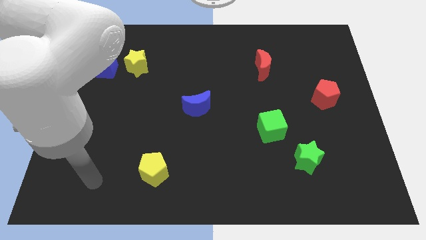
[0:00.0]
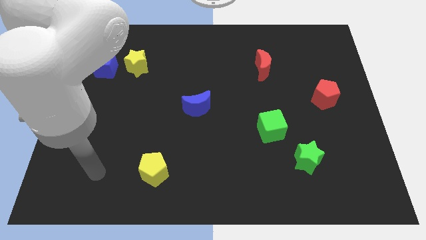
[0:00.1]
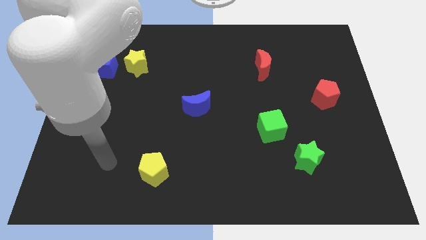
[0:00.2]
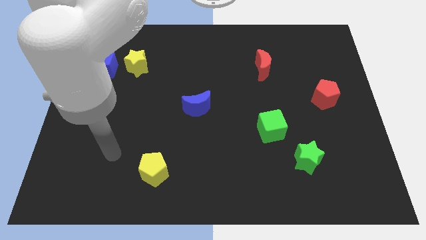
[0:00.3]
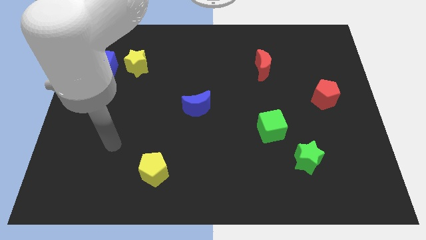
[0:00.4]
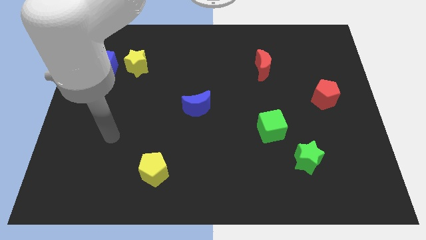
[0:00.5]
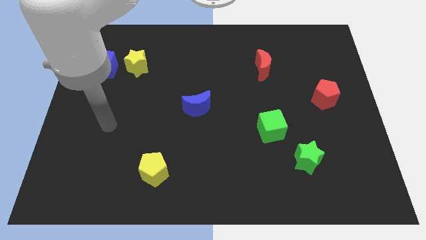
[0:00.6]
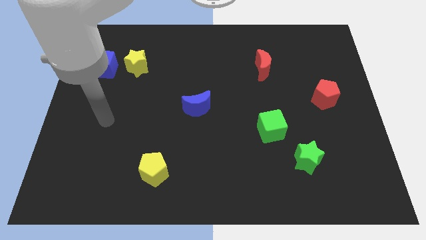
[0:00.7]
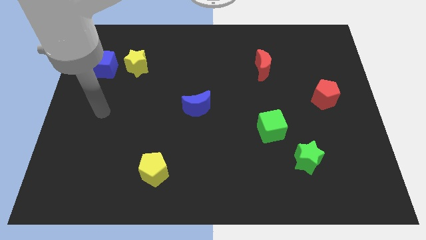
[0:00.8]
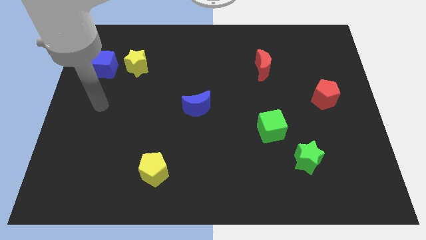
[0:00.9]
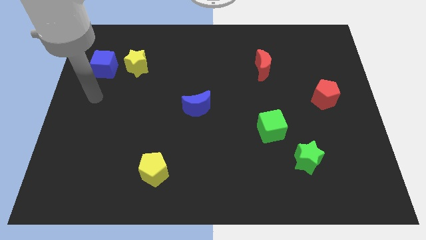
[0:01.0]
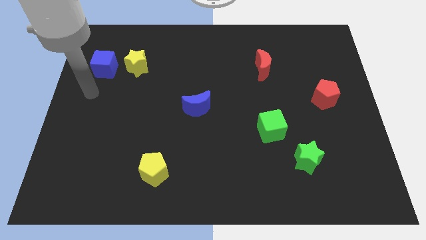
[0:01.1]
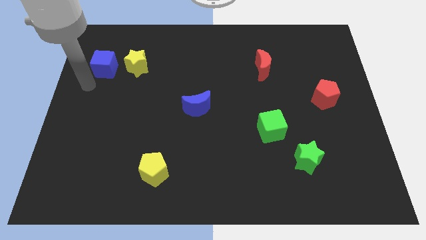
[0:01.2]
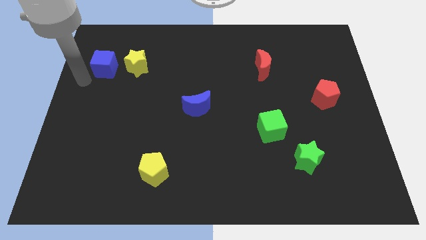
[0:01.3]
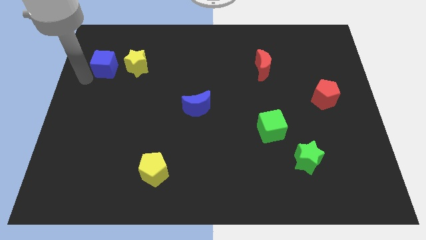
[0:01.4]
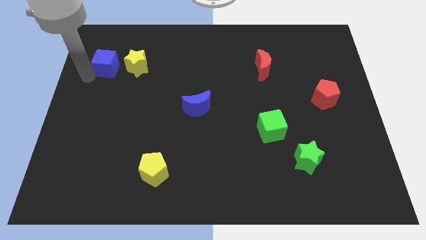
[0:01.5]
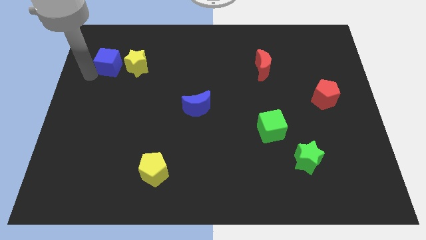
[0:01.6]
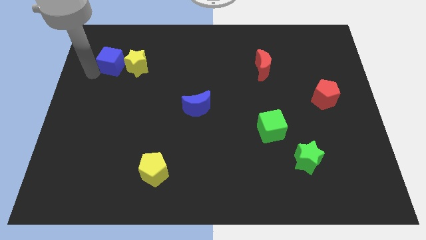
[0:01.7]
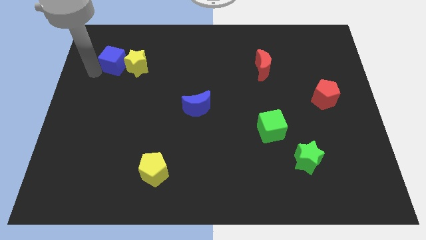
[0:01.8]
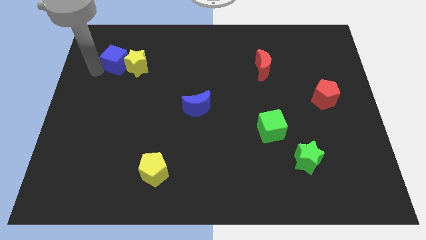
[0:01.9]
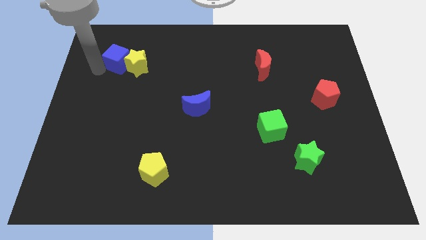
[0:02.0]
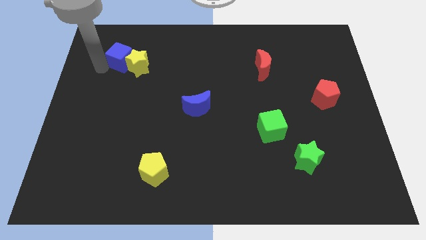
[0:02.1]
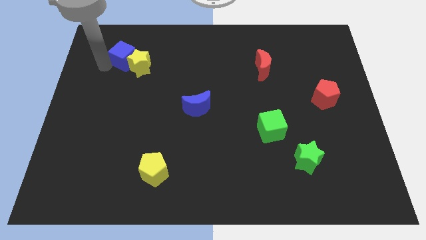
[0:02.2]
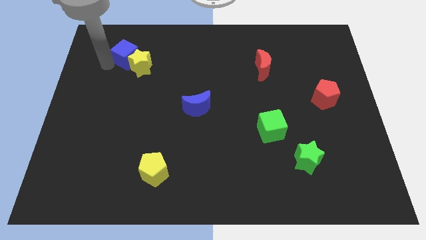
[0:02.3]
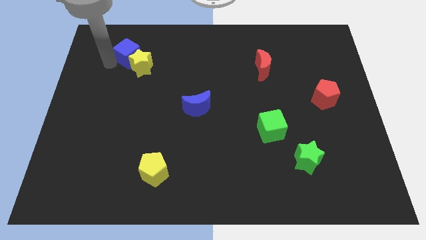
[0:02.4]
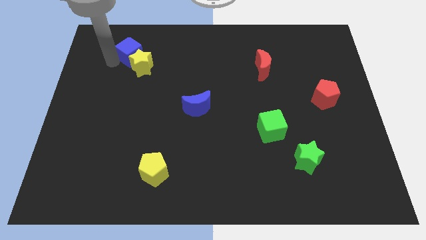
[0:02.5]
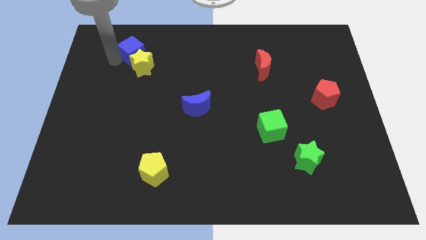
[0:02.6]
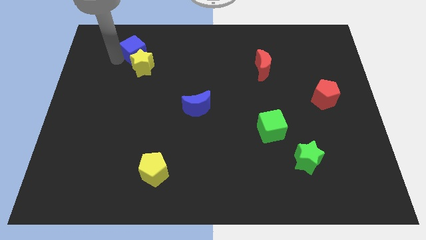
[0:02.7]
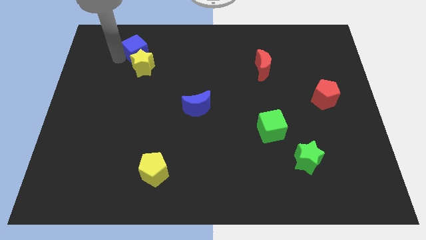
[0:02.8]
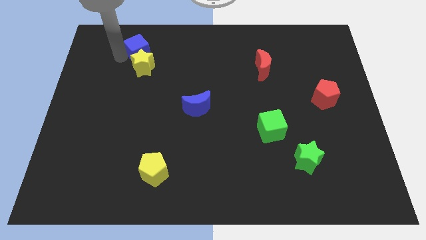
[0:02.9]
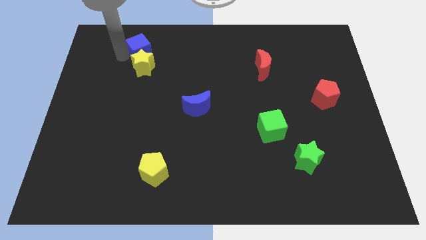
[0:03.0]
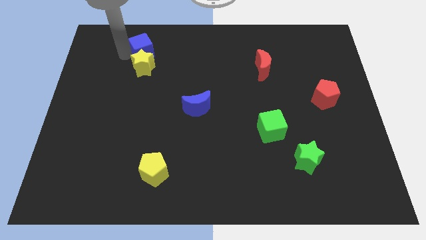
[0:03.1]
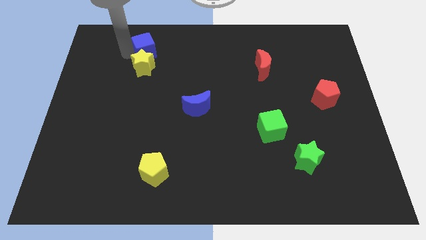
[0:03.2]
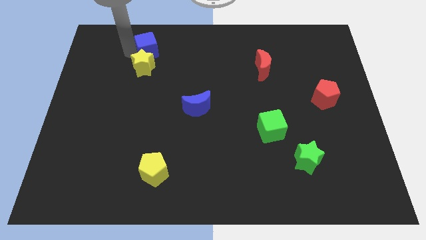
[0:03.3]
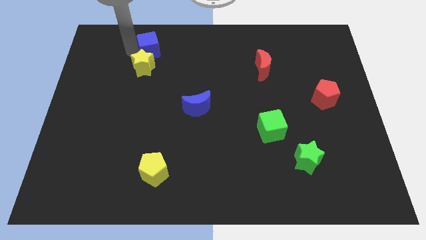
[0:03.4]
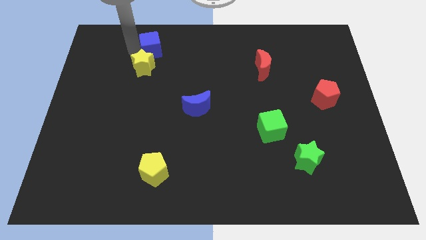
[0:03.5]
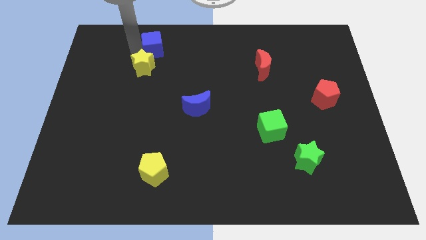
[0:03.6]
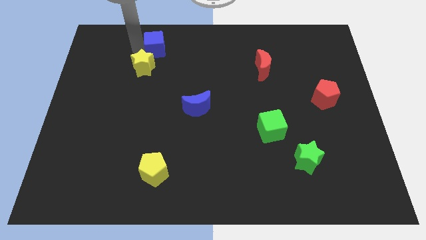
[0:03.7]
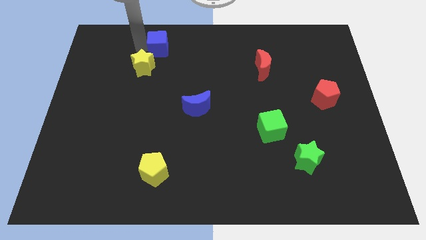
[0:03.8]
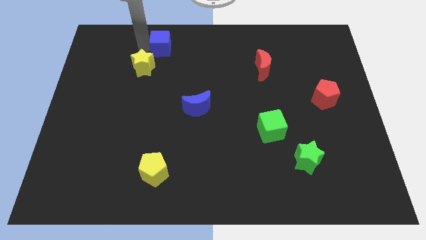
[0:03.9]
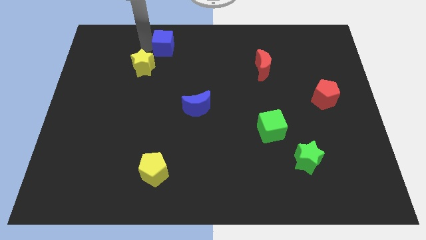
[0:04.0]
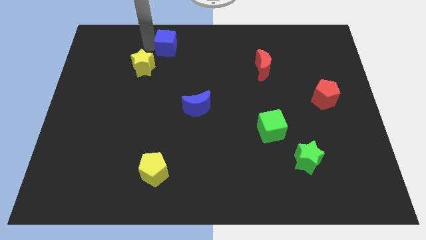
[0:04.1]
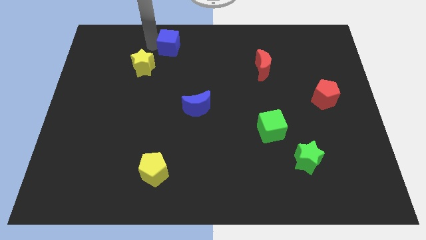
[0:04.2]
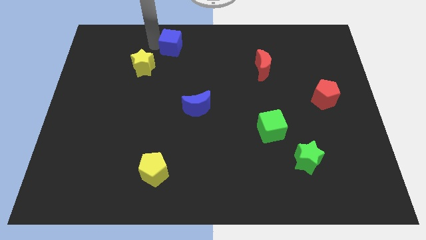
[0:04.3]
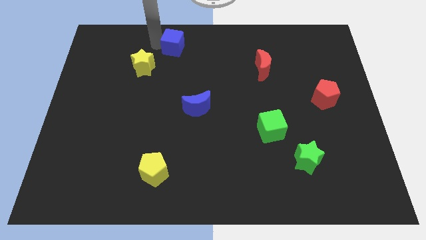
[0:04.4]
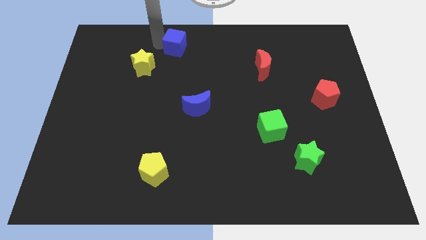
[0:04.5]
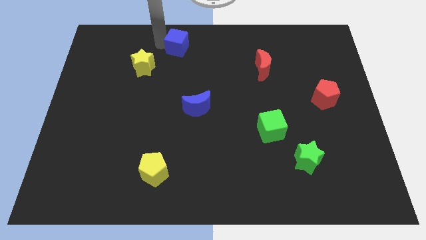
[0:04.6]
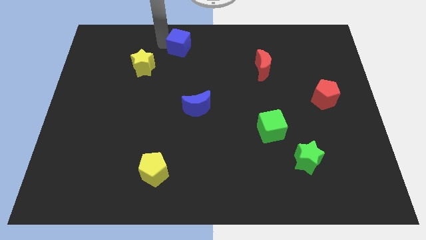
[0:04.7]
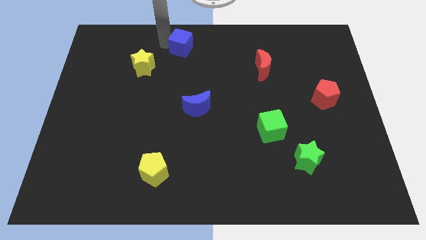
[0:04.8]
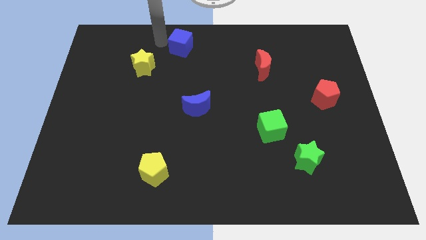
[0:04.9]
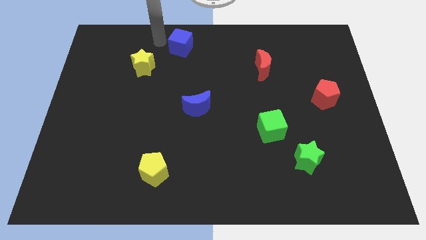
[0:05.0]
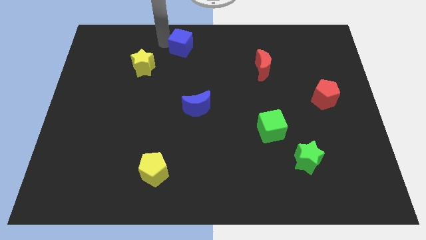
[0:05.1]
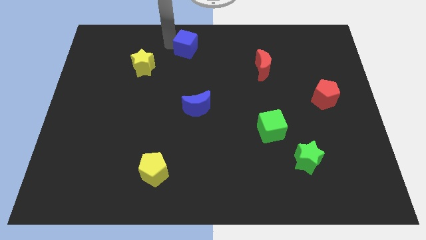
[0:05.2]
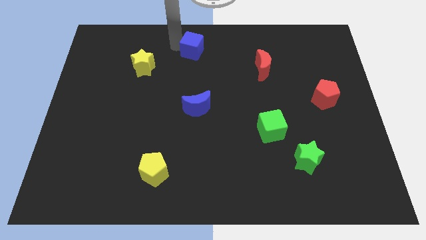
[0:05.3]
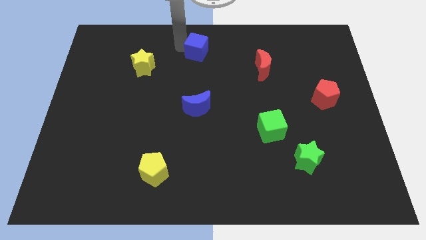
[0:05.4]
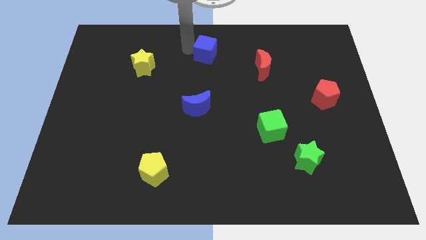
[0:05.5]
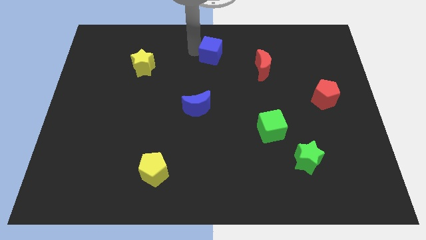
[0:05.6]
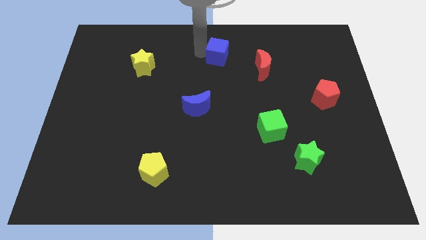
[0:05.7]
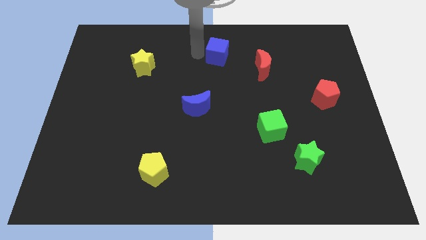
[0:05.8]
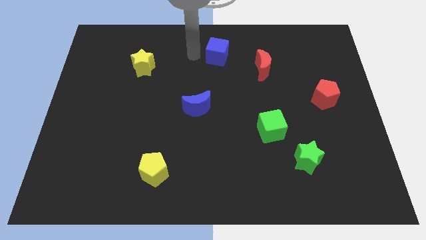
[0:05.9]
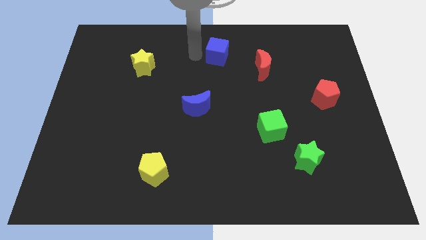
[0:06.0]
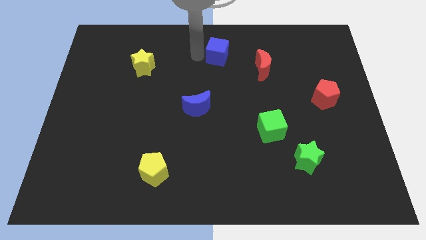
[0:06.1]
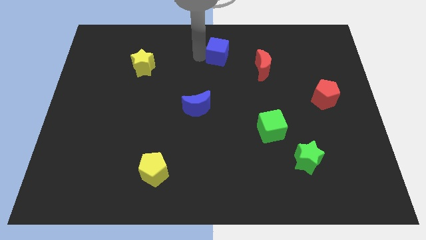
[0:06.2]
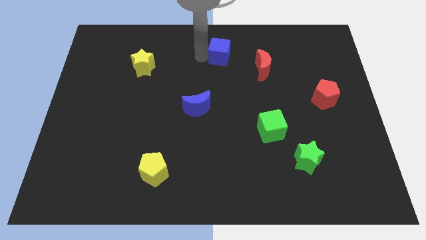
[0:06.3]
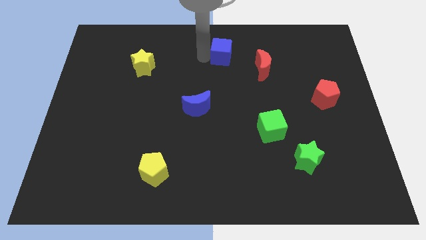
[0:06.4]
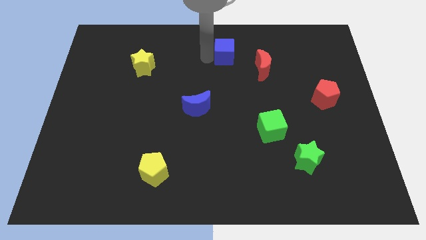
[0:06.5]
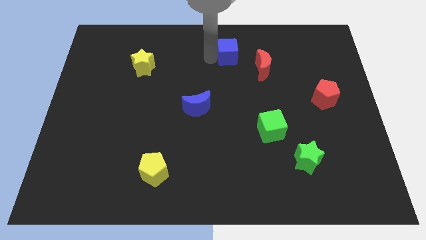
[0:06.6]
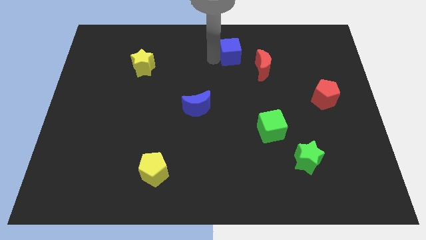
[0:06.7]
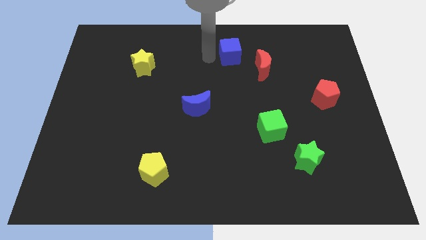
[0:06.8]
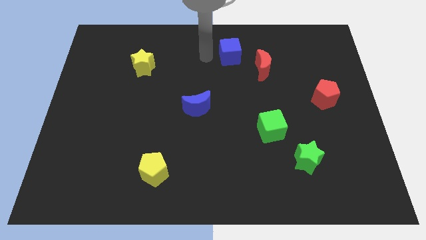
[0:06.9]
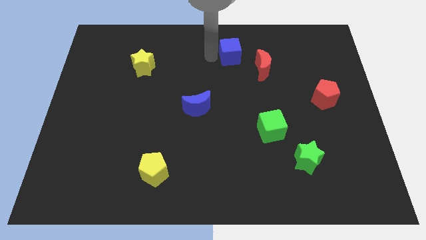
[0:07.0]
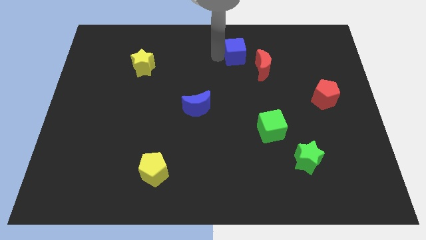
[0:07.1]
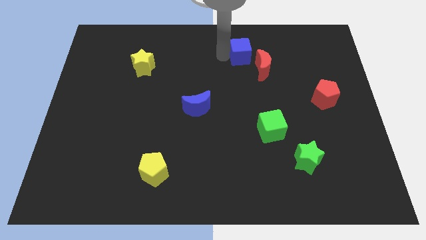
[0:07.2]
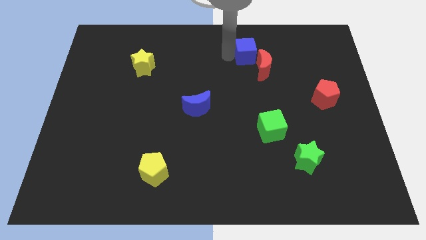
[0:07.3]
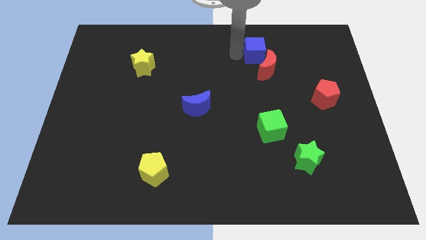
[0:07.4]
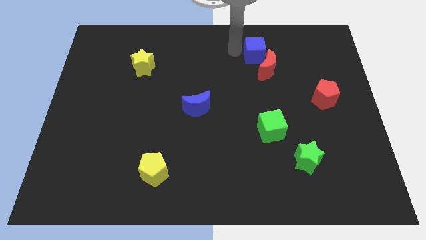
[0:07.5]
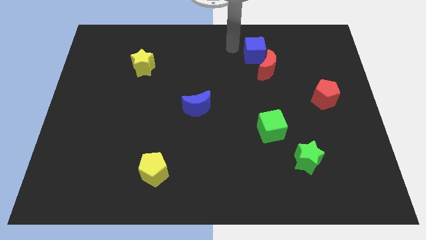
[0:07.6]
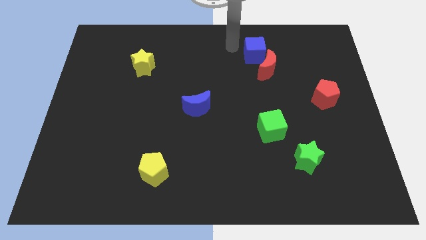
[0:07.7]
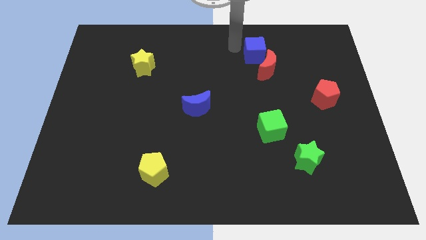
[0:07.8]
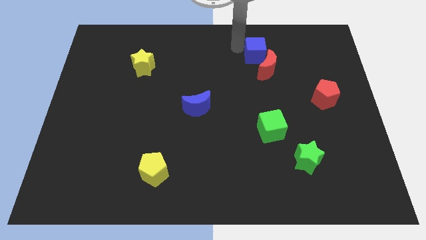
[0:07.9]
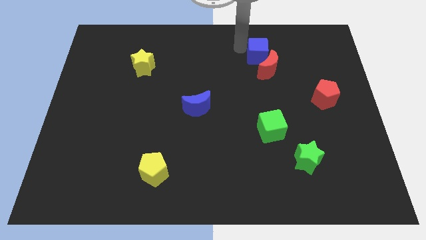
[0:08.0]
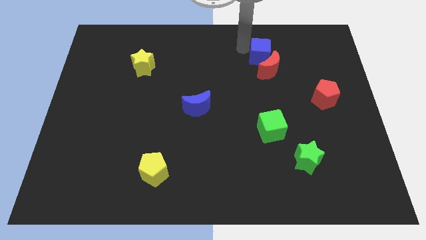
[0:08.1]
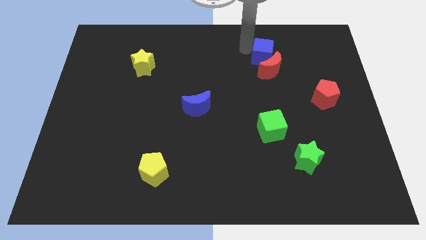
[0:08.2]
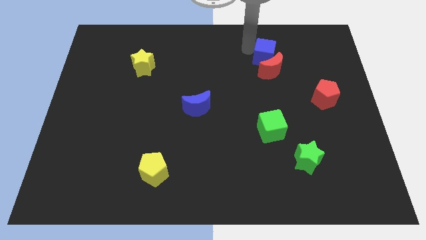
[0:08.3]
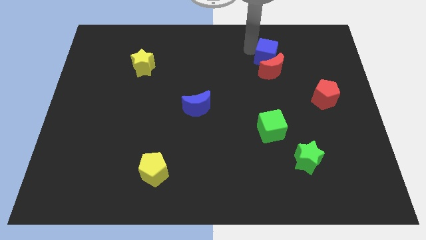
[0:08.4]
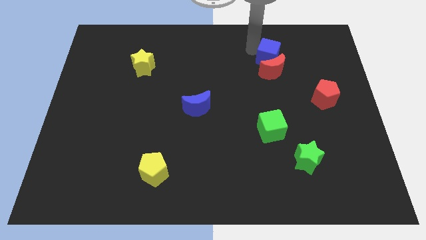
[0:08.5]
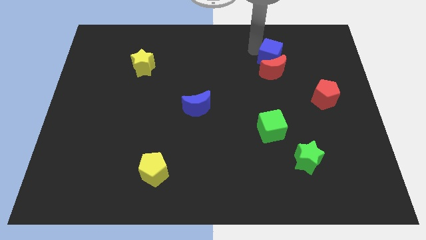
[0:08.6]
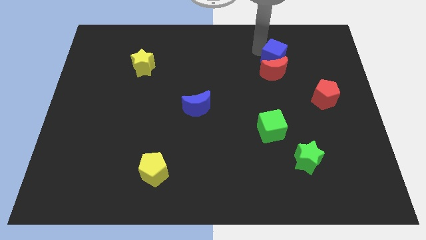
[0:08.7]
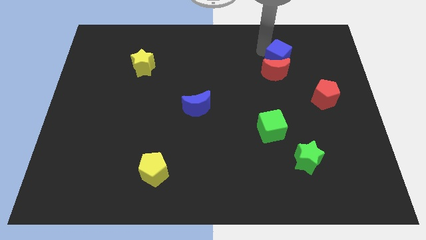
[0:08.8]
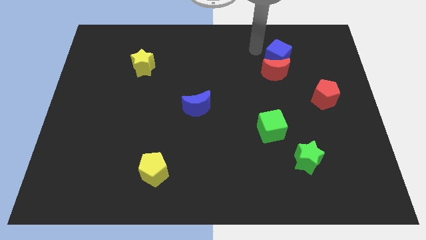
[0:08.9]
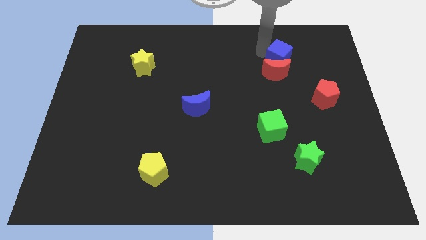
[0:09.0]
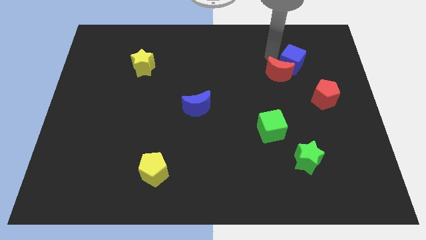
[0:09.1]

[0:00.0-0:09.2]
push the blue cube to the right side of the red moon
